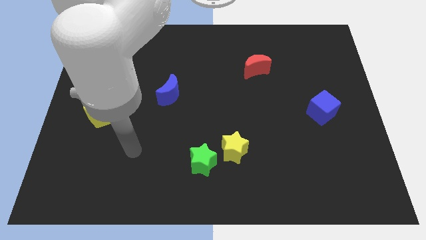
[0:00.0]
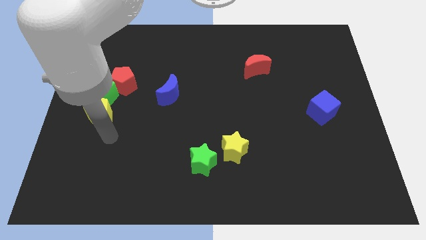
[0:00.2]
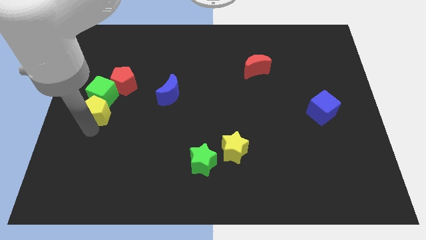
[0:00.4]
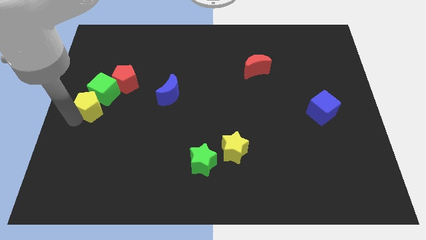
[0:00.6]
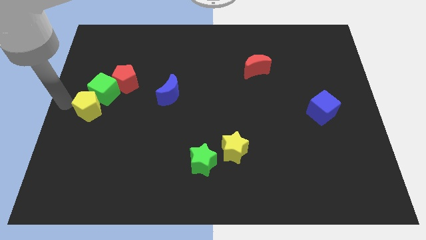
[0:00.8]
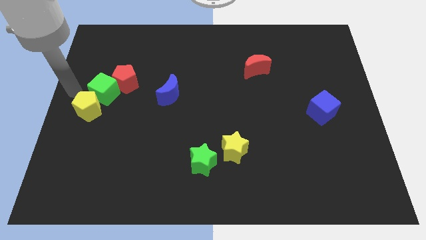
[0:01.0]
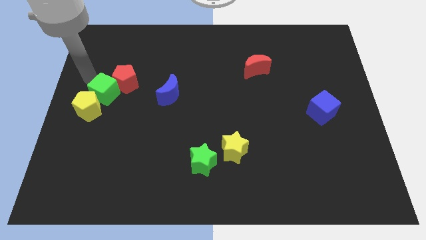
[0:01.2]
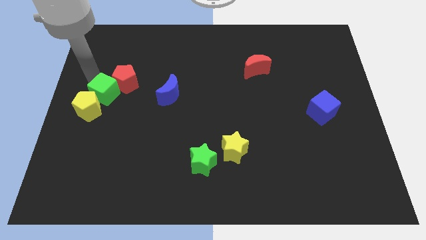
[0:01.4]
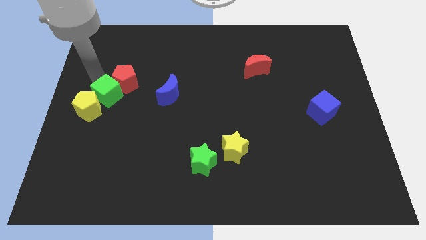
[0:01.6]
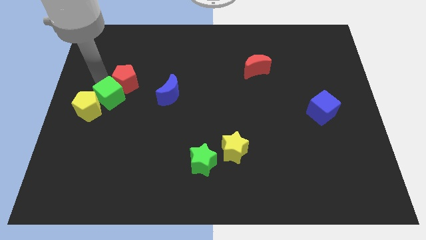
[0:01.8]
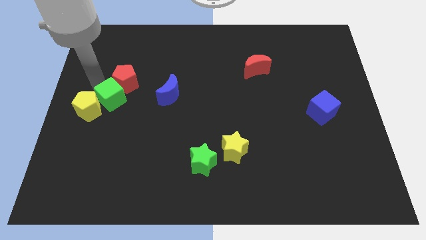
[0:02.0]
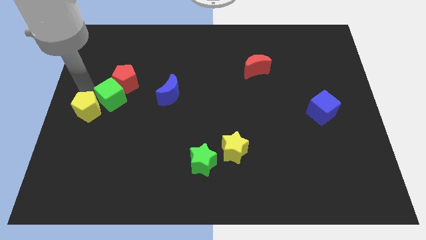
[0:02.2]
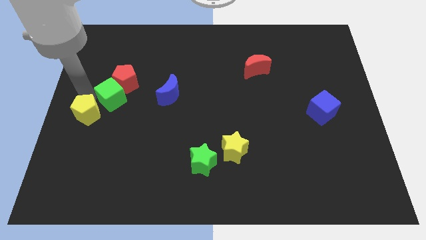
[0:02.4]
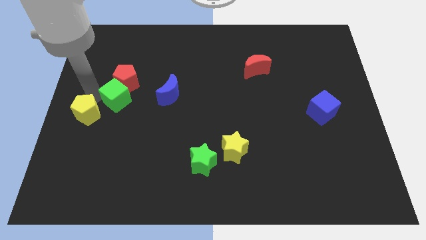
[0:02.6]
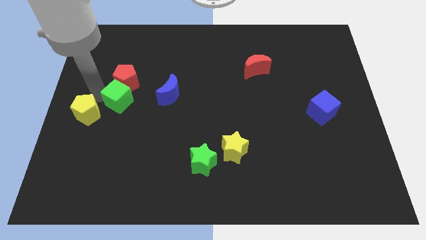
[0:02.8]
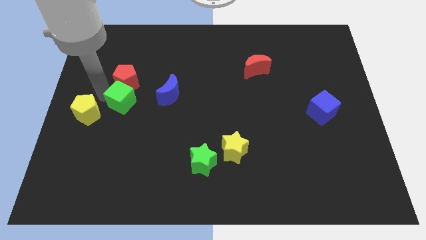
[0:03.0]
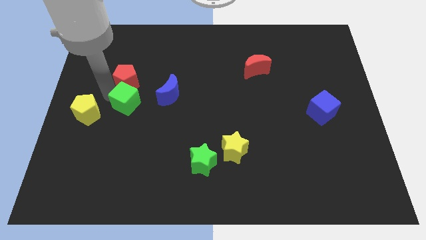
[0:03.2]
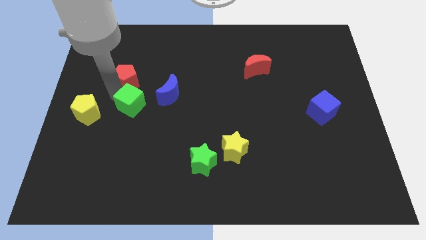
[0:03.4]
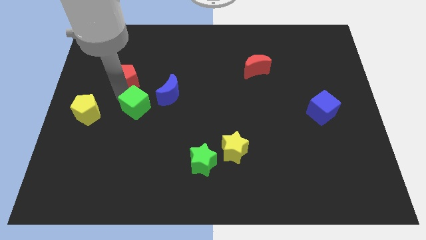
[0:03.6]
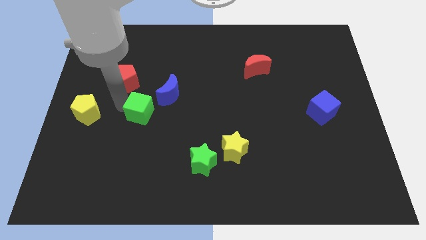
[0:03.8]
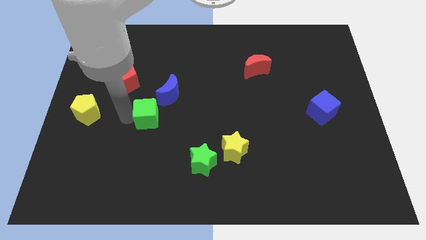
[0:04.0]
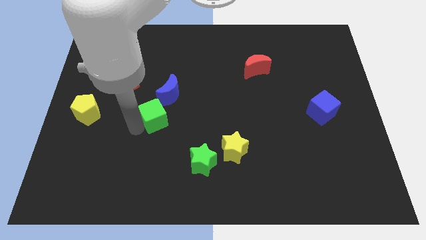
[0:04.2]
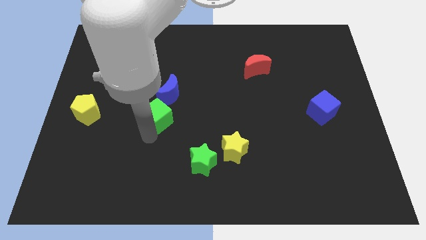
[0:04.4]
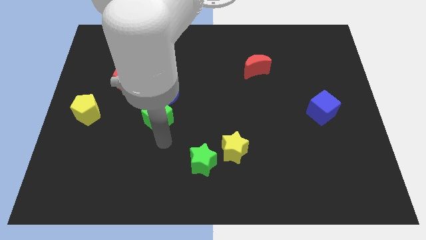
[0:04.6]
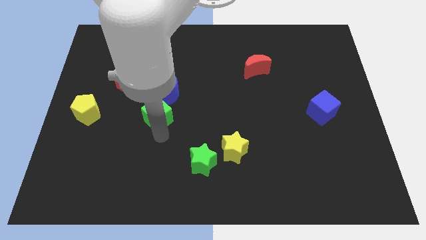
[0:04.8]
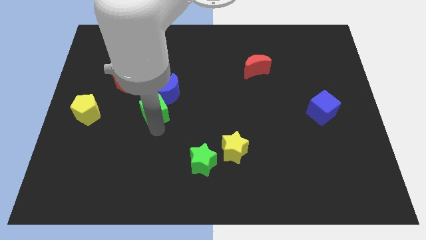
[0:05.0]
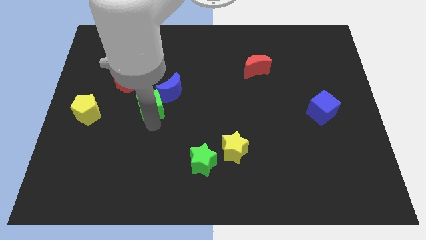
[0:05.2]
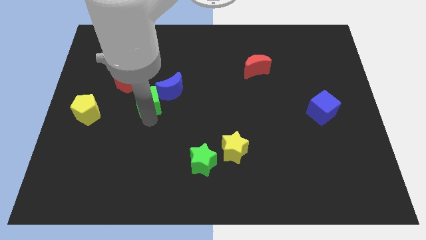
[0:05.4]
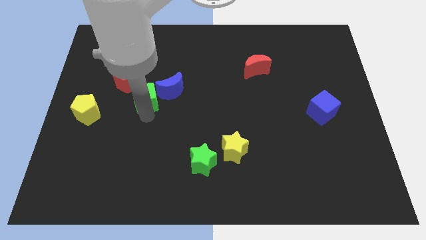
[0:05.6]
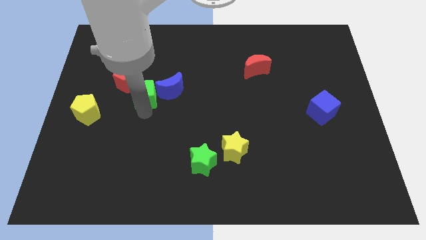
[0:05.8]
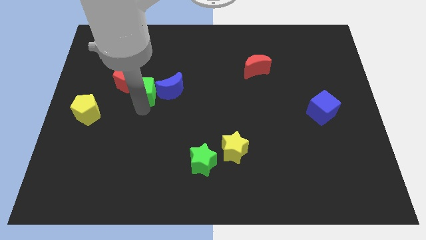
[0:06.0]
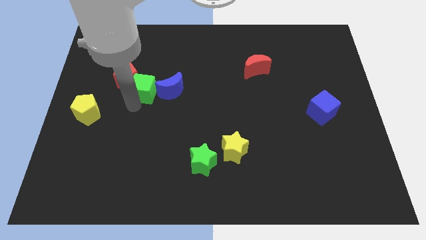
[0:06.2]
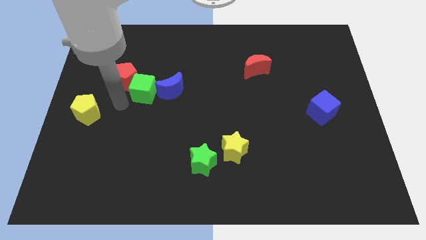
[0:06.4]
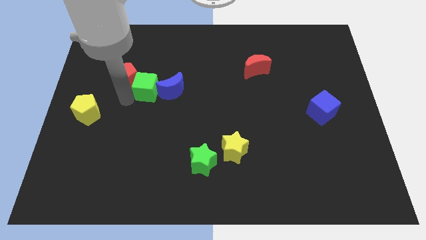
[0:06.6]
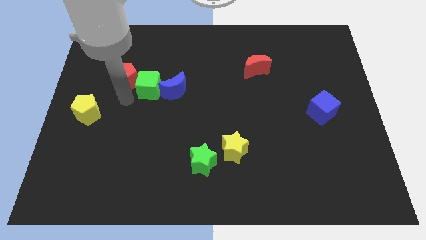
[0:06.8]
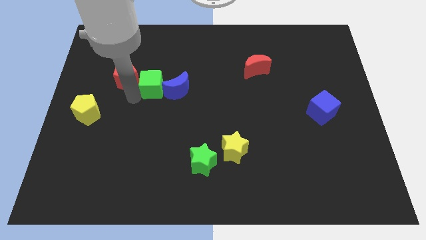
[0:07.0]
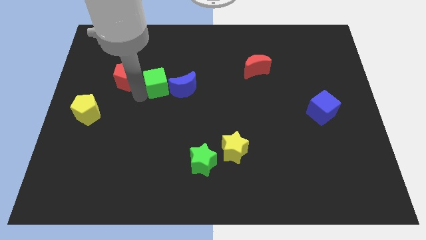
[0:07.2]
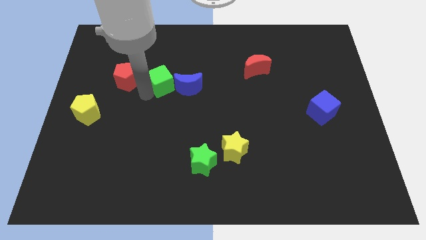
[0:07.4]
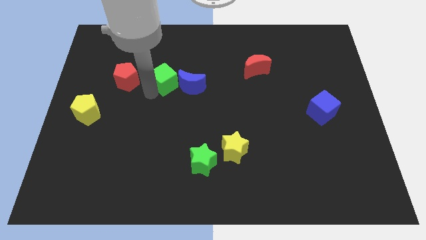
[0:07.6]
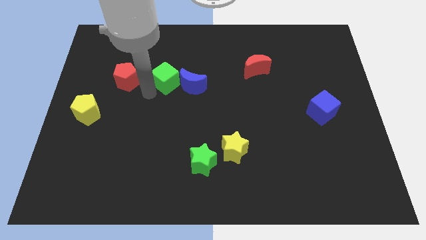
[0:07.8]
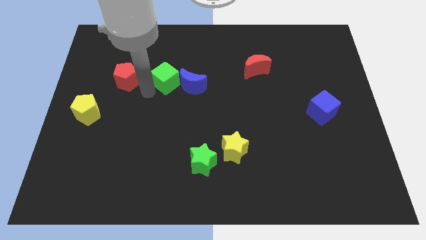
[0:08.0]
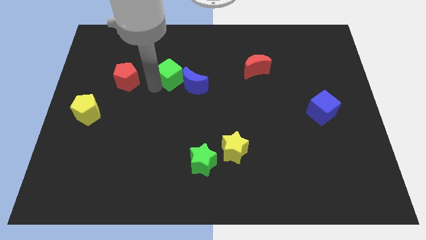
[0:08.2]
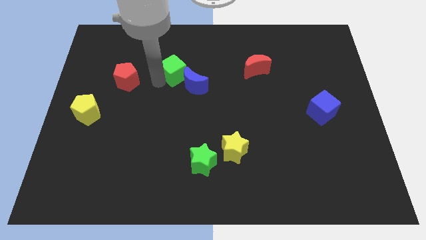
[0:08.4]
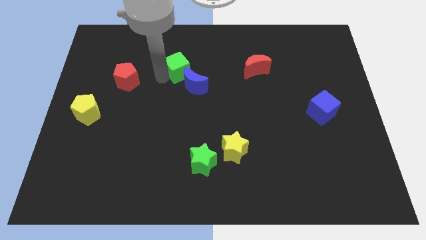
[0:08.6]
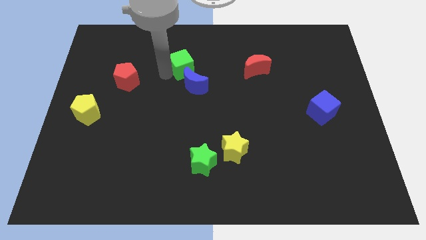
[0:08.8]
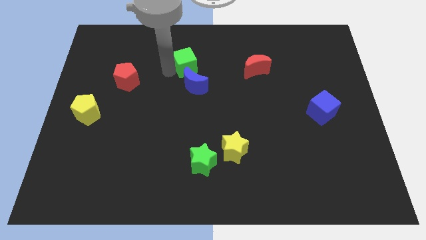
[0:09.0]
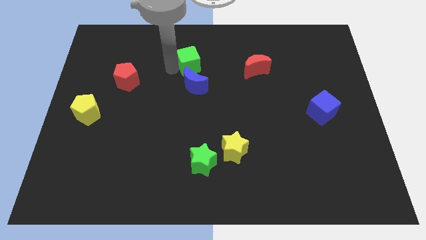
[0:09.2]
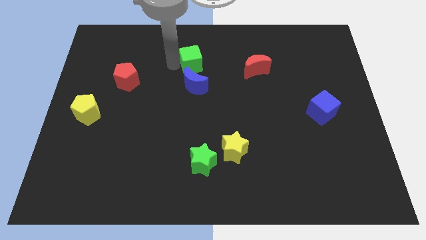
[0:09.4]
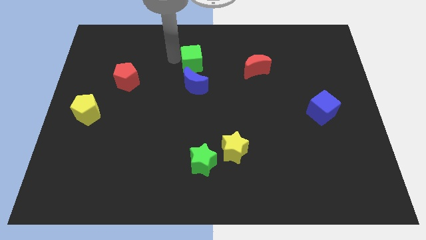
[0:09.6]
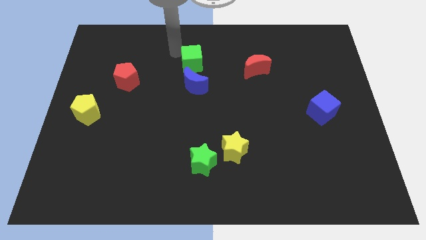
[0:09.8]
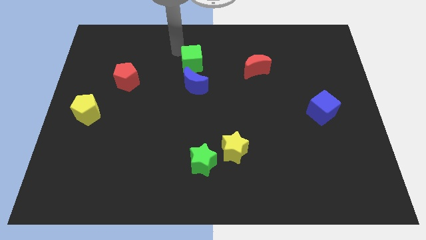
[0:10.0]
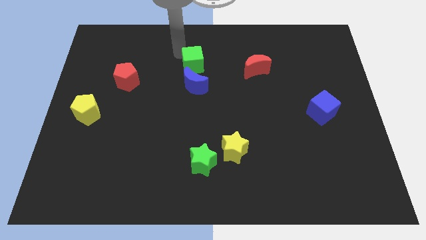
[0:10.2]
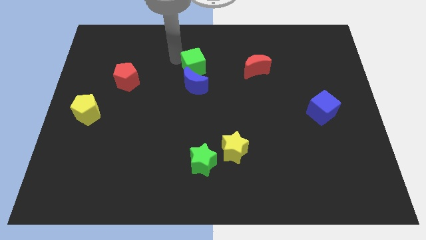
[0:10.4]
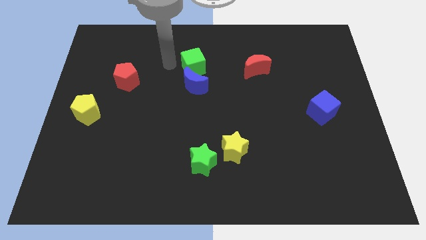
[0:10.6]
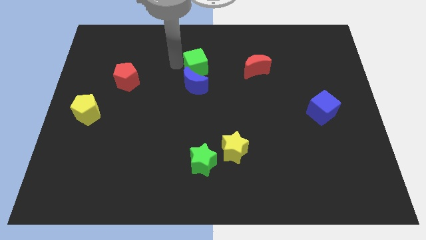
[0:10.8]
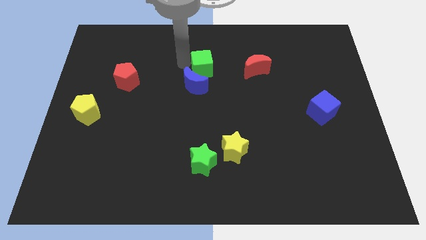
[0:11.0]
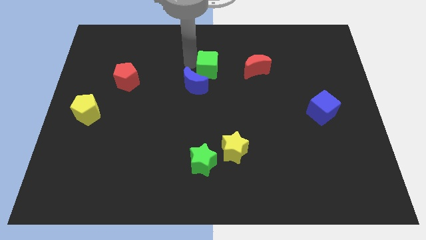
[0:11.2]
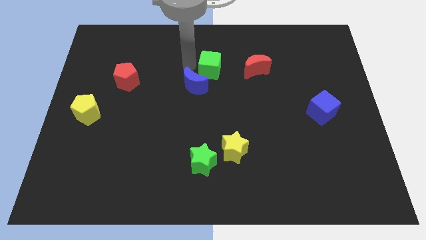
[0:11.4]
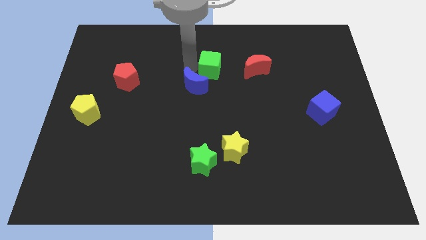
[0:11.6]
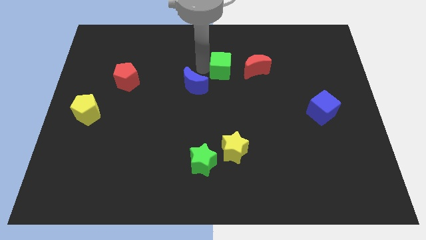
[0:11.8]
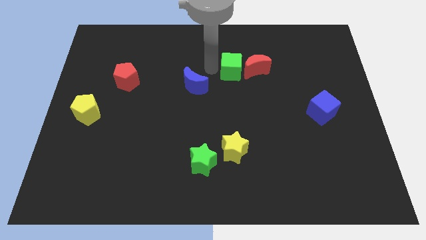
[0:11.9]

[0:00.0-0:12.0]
push the green cube next to the red moon

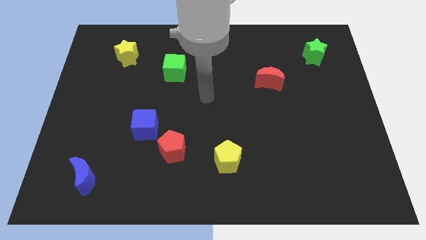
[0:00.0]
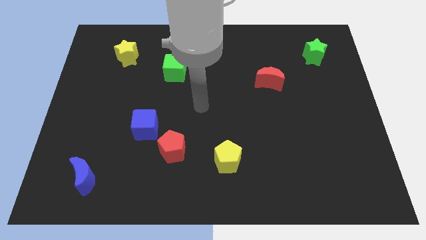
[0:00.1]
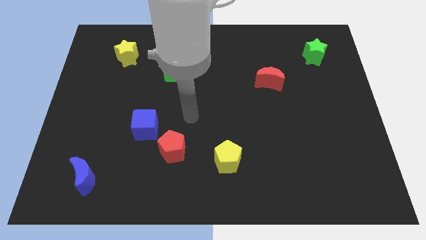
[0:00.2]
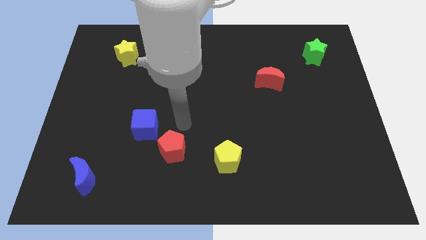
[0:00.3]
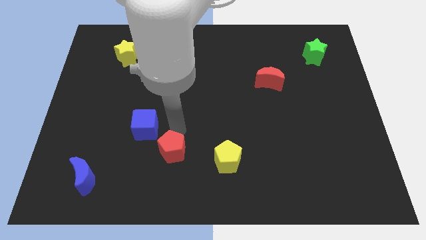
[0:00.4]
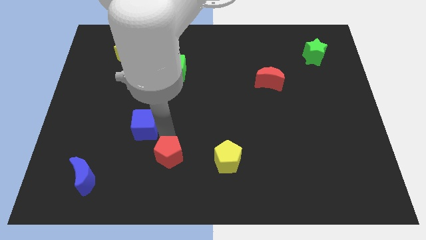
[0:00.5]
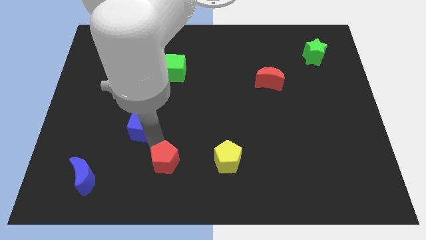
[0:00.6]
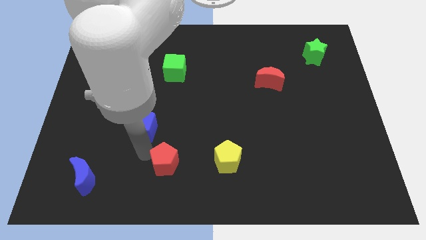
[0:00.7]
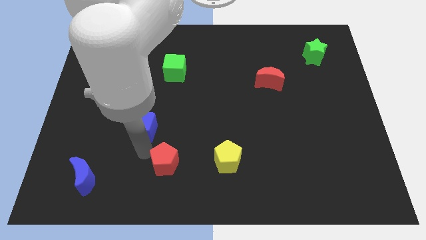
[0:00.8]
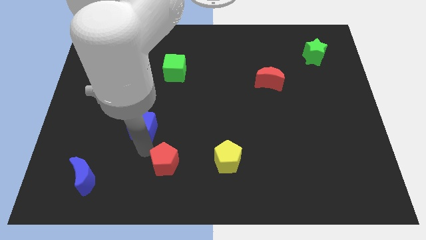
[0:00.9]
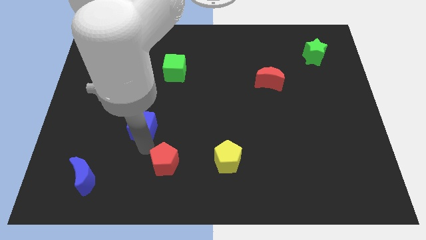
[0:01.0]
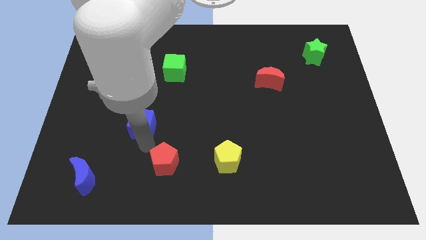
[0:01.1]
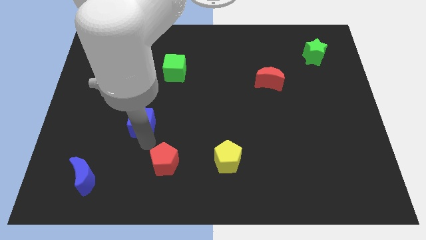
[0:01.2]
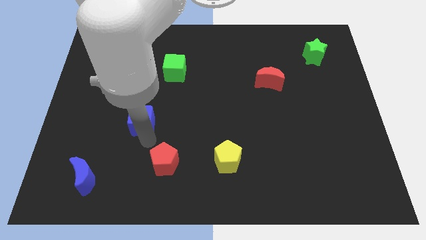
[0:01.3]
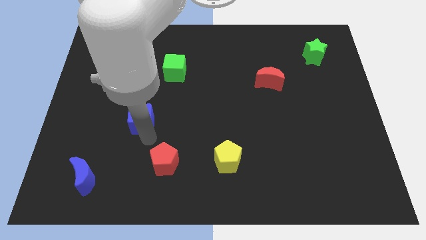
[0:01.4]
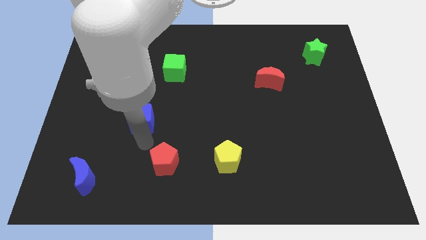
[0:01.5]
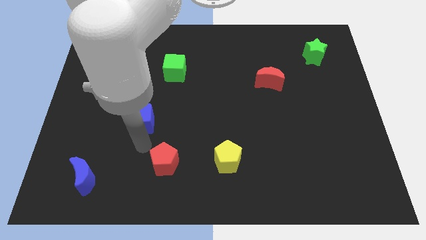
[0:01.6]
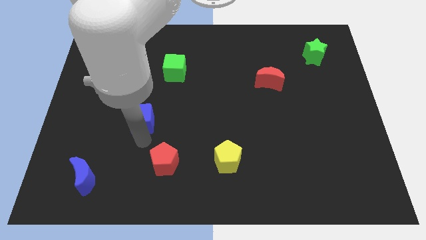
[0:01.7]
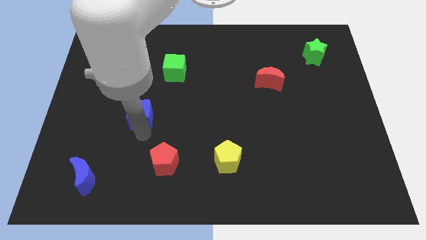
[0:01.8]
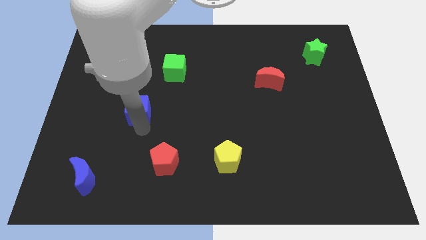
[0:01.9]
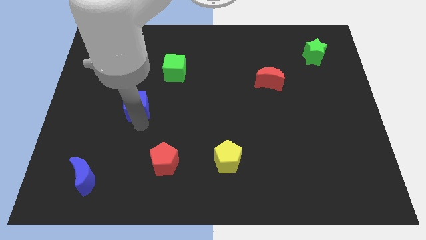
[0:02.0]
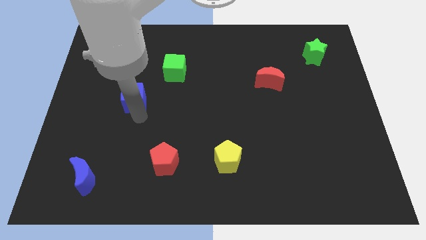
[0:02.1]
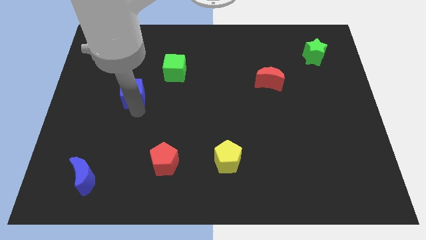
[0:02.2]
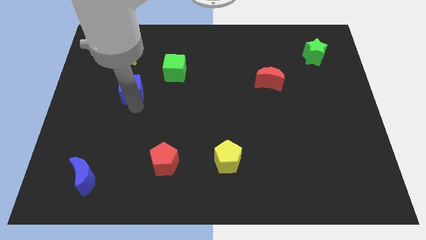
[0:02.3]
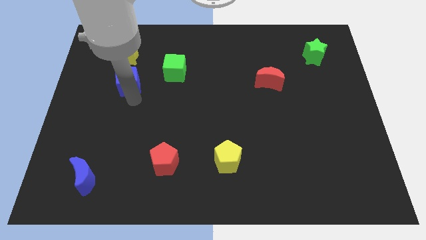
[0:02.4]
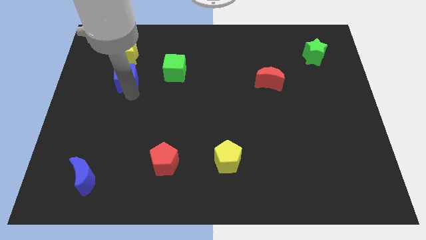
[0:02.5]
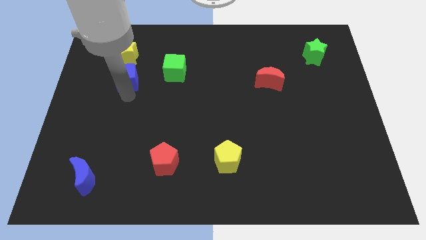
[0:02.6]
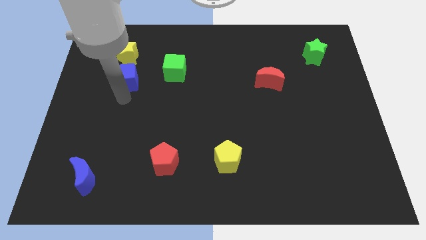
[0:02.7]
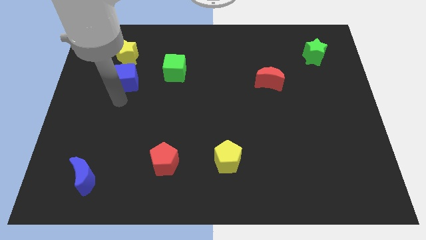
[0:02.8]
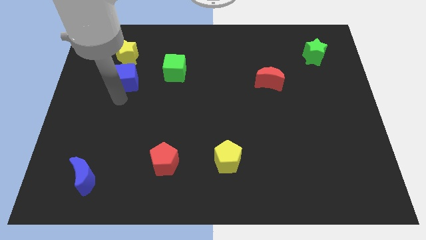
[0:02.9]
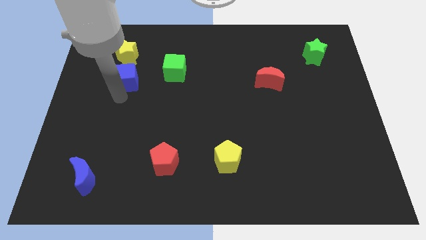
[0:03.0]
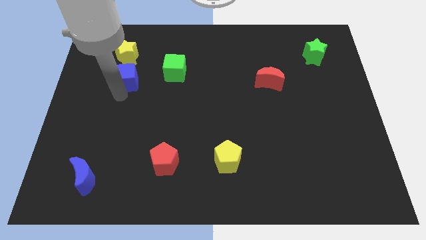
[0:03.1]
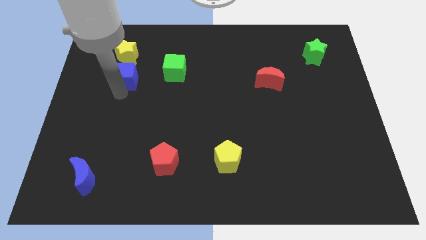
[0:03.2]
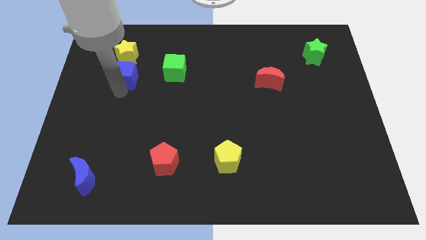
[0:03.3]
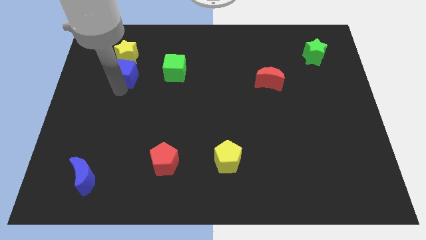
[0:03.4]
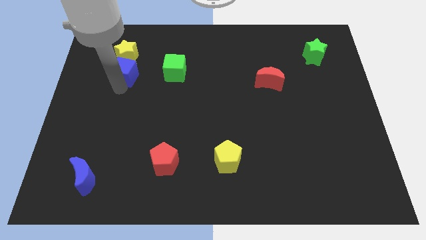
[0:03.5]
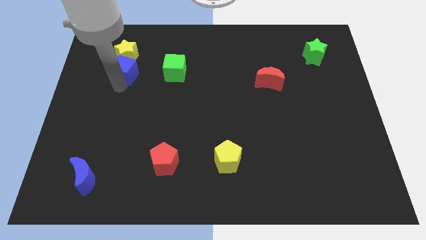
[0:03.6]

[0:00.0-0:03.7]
put the blue cube close to the yellow star
